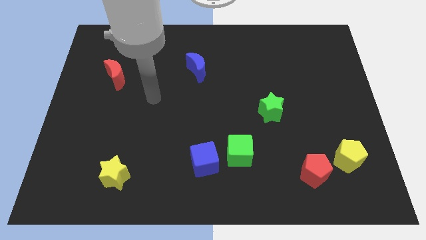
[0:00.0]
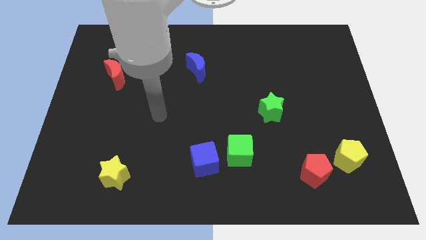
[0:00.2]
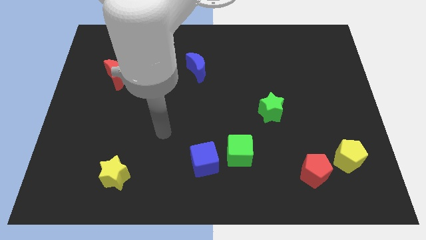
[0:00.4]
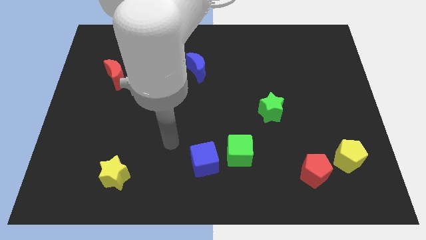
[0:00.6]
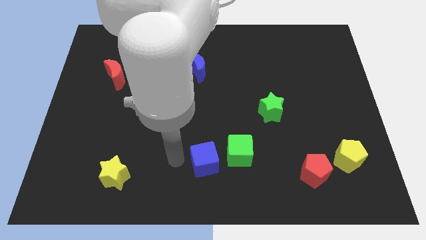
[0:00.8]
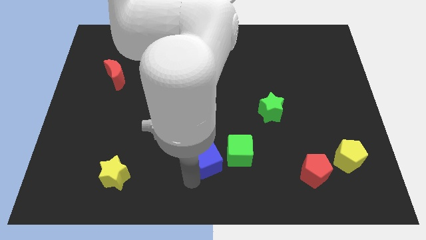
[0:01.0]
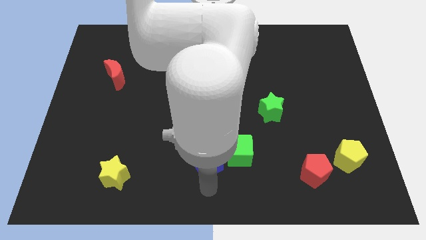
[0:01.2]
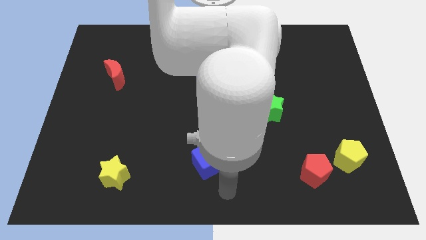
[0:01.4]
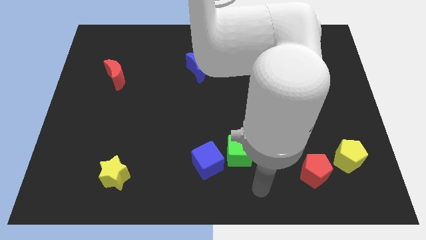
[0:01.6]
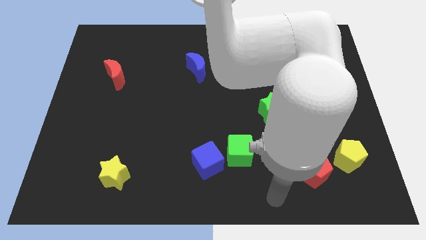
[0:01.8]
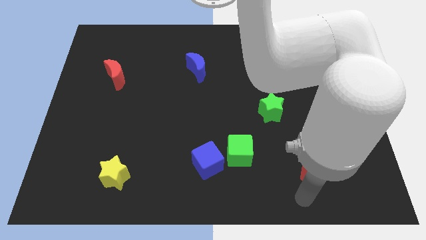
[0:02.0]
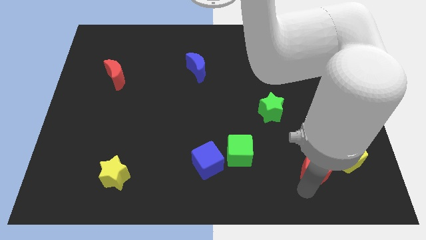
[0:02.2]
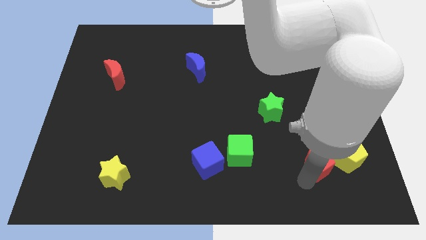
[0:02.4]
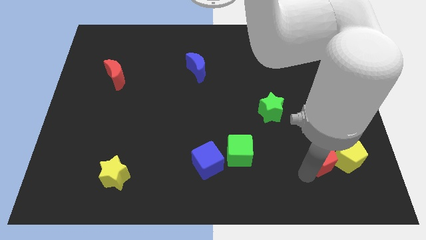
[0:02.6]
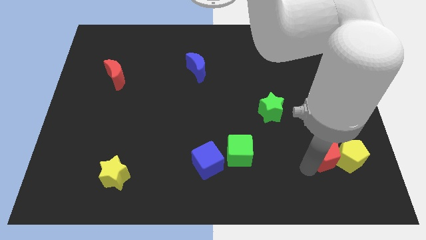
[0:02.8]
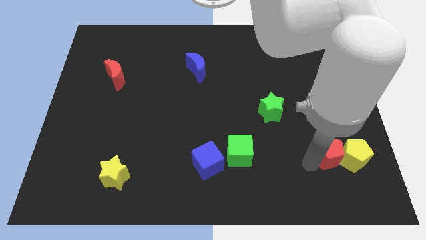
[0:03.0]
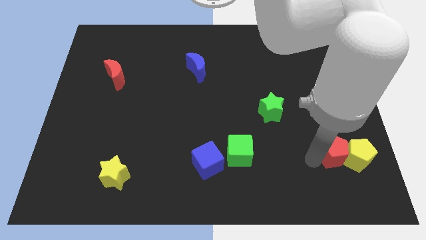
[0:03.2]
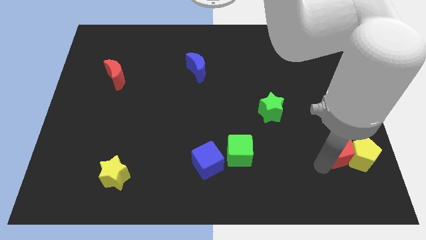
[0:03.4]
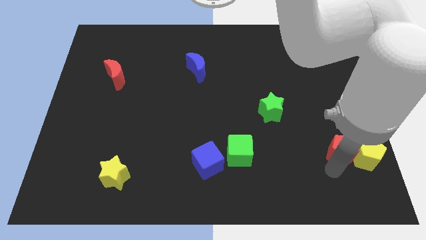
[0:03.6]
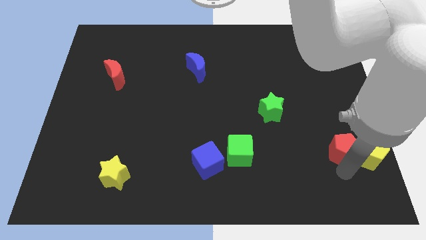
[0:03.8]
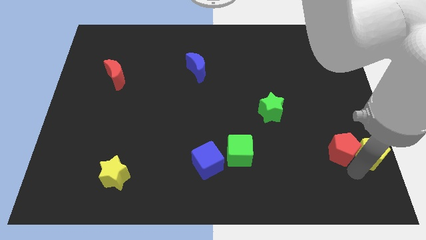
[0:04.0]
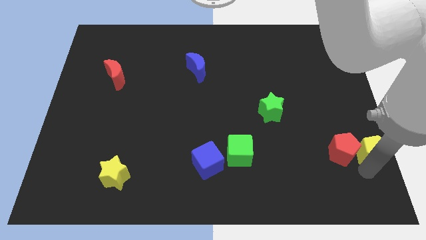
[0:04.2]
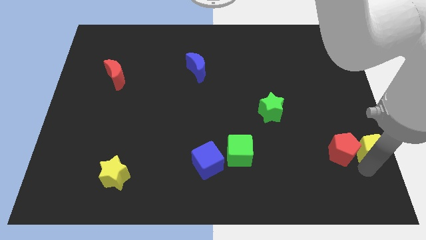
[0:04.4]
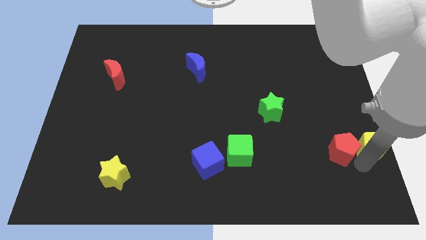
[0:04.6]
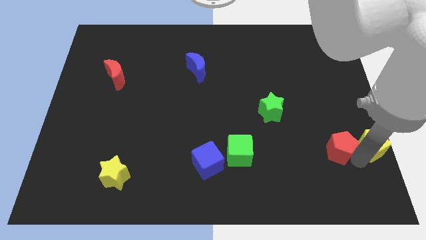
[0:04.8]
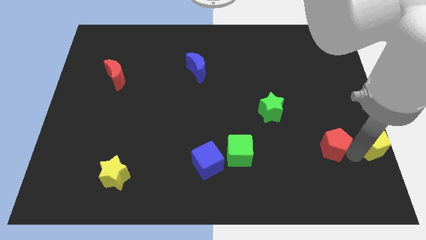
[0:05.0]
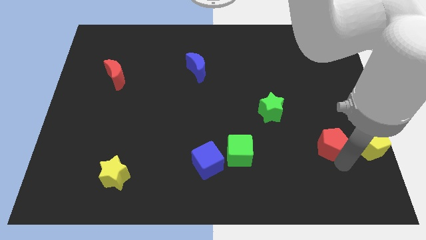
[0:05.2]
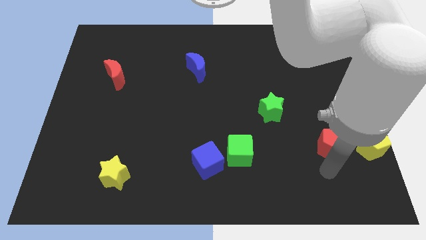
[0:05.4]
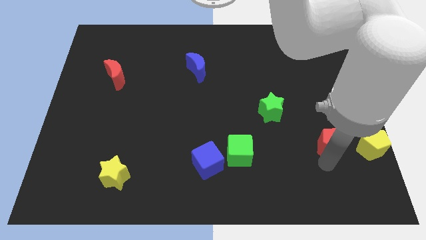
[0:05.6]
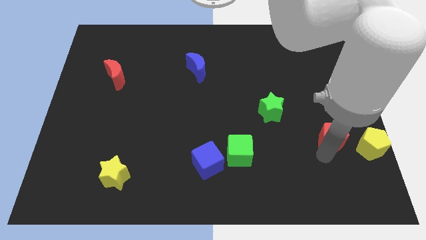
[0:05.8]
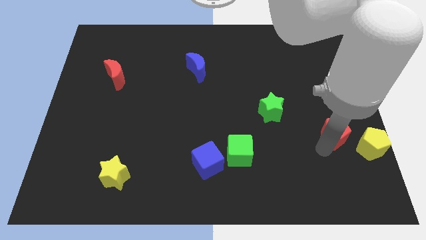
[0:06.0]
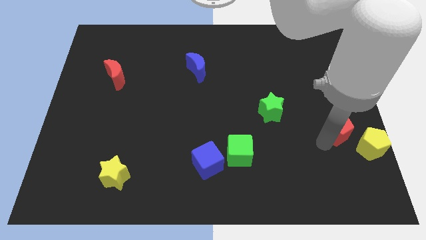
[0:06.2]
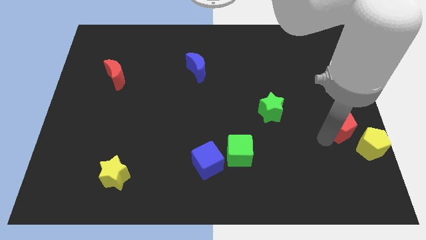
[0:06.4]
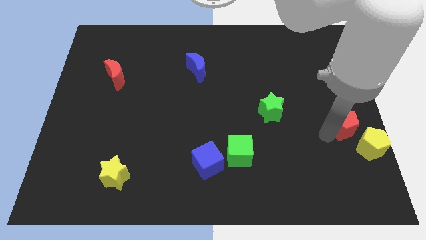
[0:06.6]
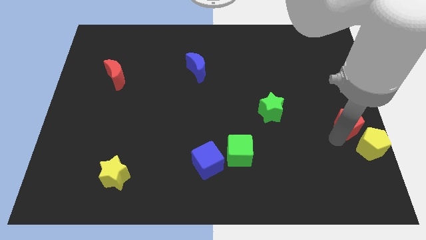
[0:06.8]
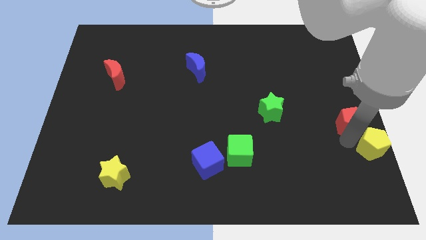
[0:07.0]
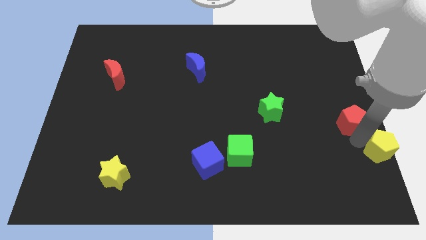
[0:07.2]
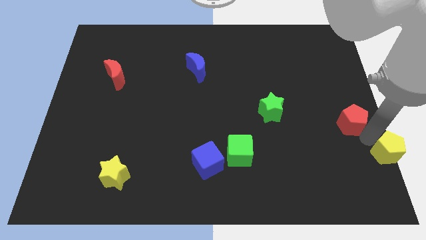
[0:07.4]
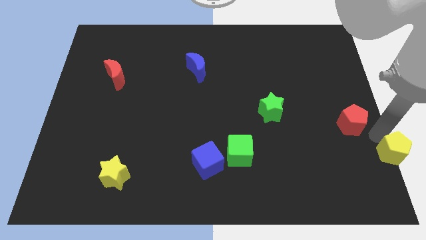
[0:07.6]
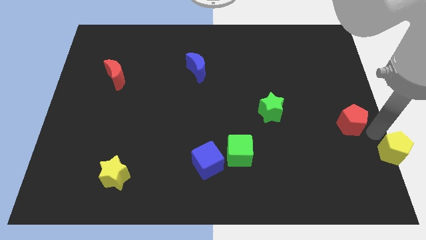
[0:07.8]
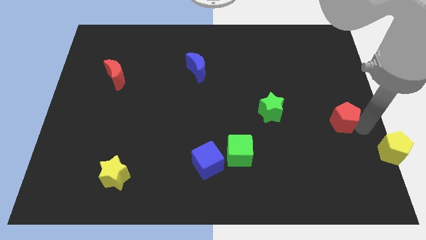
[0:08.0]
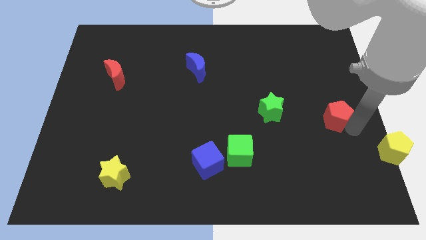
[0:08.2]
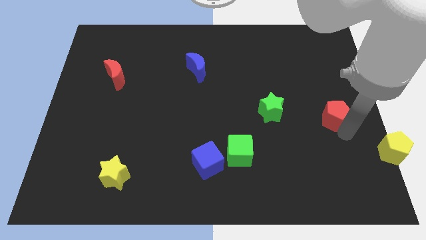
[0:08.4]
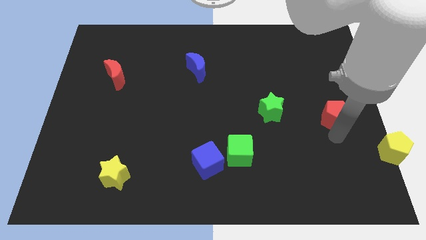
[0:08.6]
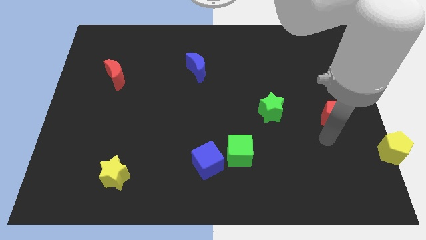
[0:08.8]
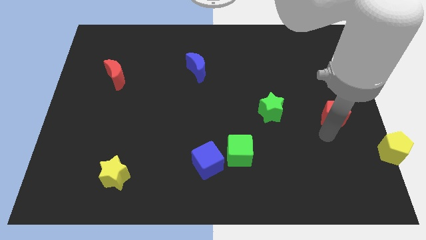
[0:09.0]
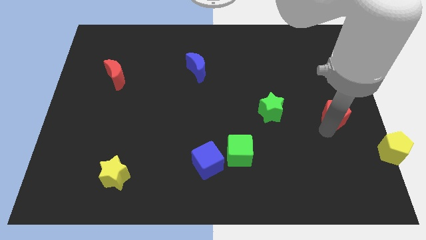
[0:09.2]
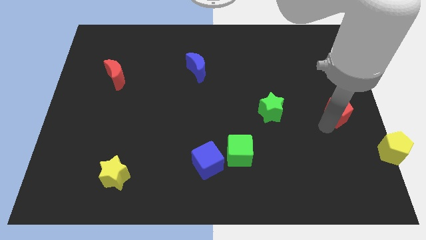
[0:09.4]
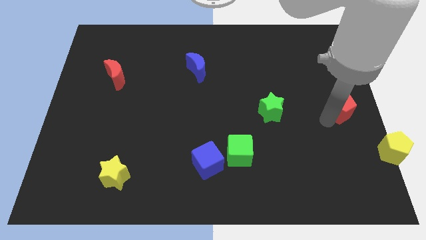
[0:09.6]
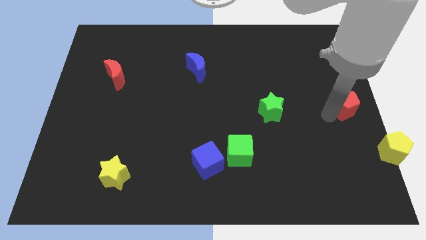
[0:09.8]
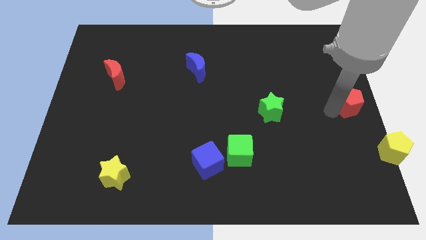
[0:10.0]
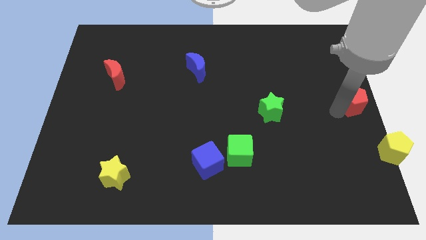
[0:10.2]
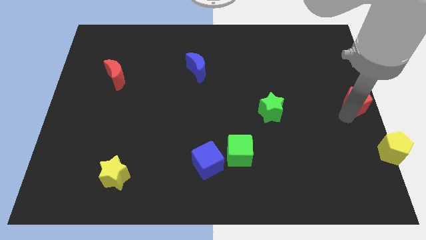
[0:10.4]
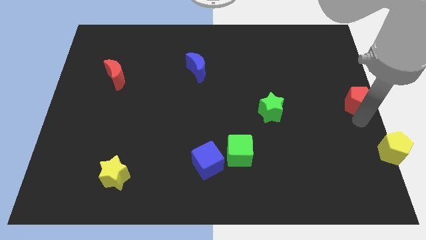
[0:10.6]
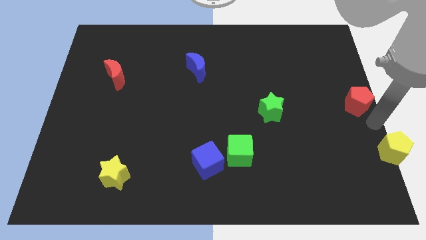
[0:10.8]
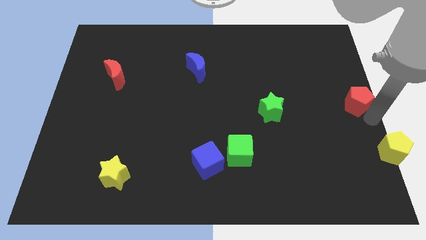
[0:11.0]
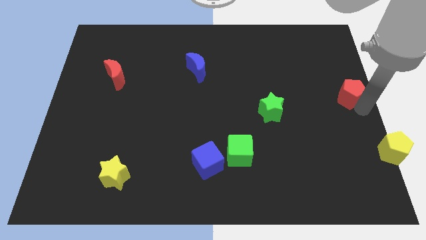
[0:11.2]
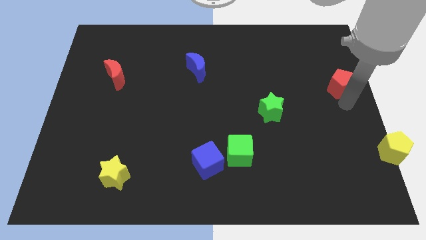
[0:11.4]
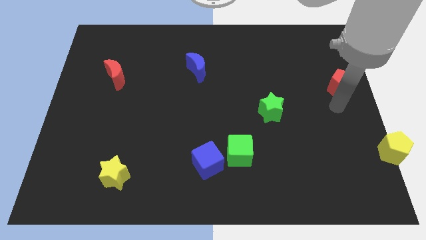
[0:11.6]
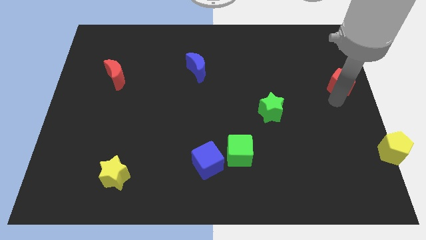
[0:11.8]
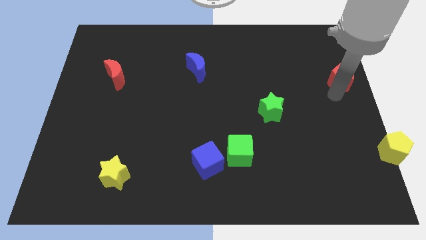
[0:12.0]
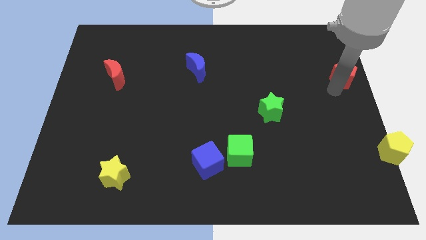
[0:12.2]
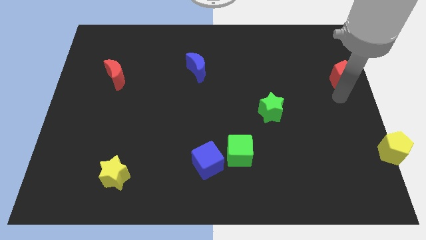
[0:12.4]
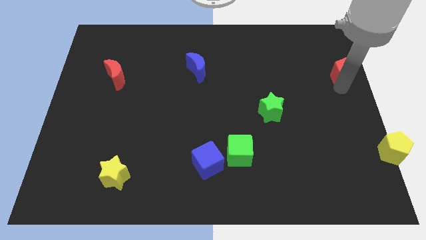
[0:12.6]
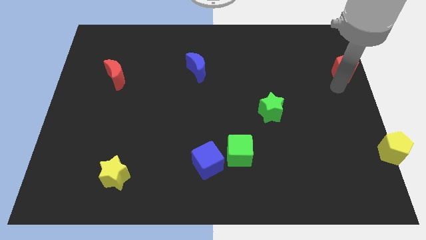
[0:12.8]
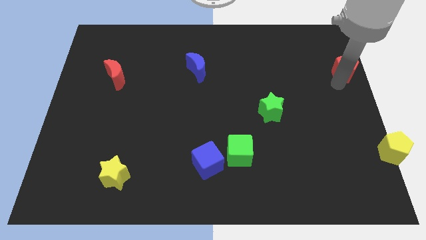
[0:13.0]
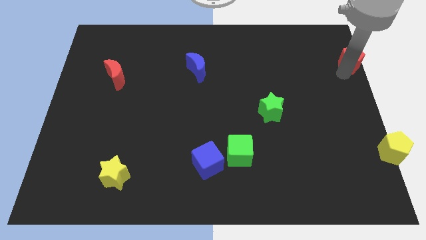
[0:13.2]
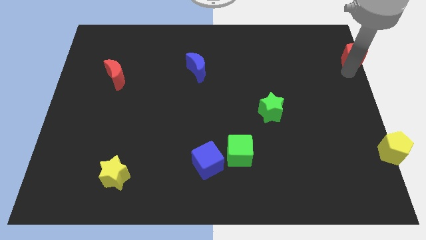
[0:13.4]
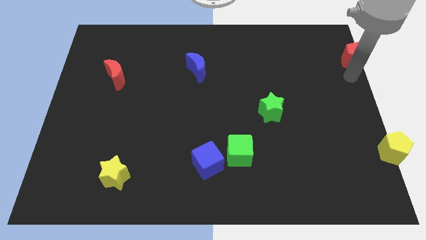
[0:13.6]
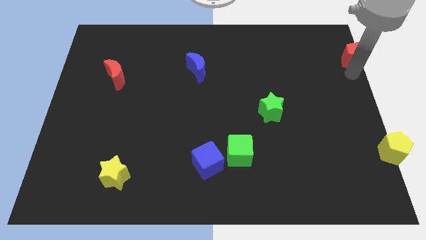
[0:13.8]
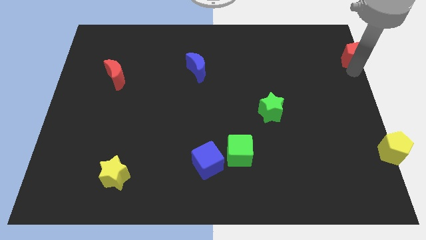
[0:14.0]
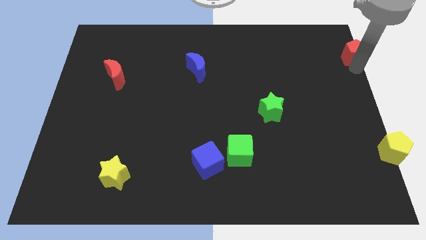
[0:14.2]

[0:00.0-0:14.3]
push the red pentagon to the top right of the board

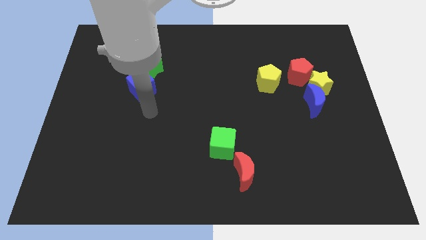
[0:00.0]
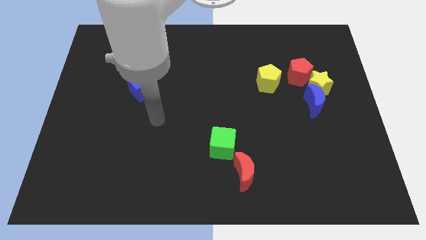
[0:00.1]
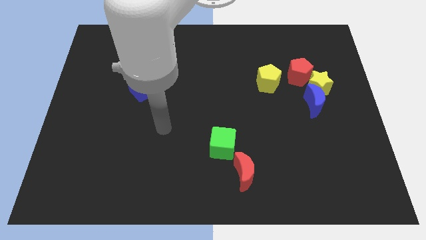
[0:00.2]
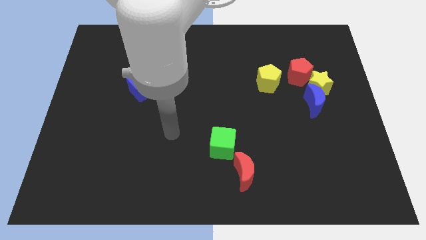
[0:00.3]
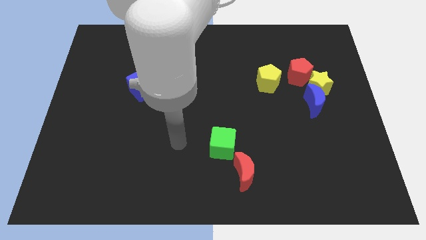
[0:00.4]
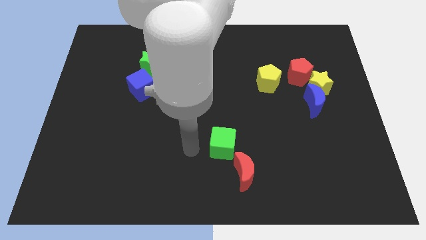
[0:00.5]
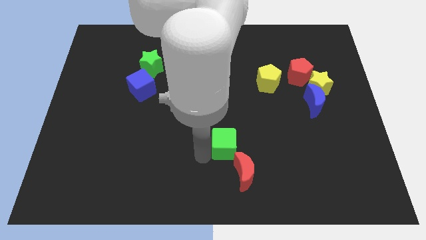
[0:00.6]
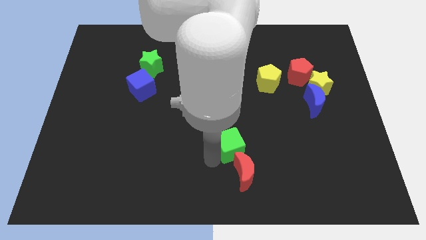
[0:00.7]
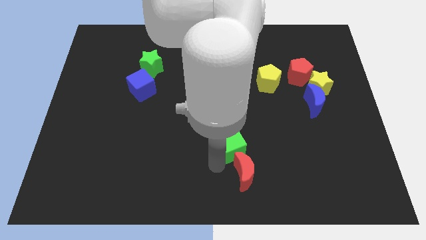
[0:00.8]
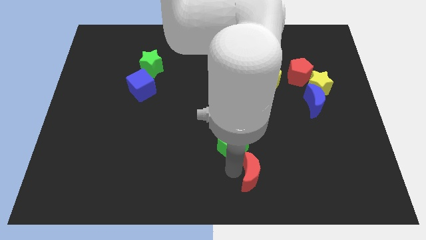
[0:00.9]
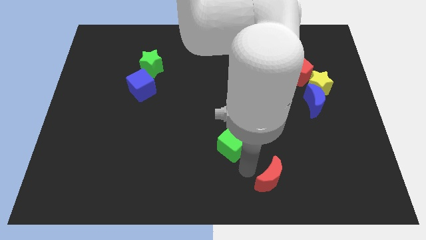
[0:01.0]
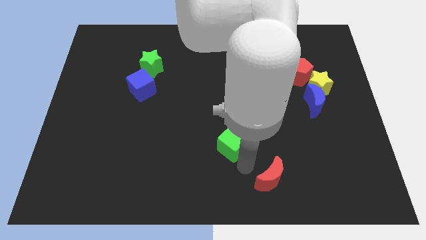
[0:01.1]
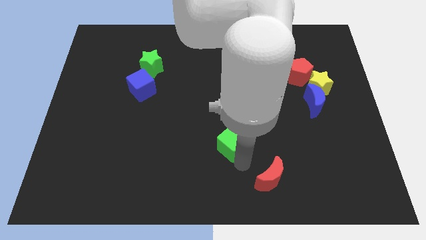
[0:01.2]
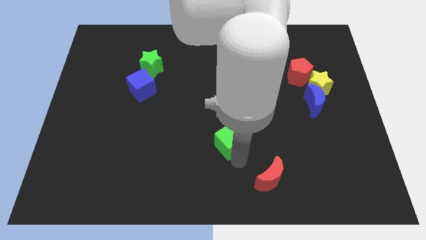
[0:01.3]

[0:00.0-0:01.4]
slide the green cube to the center
